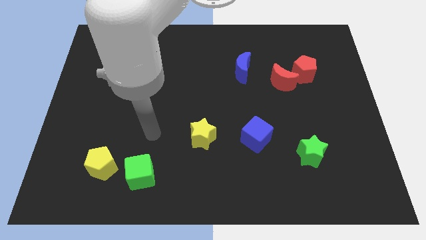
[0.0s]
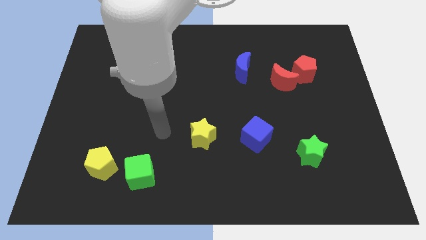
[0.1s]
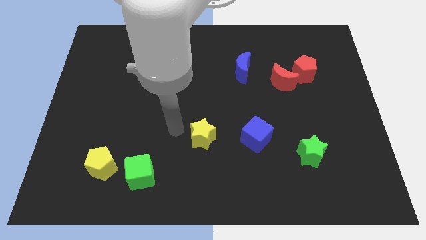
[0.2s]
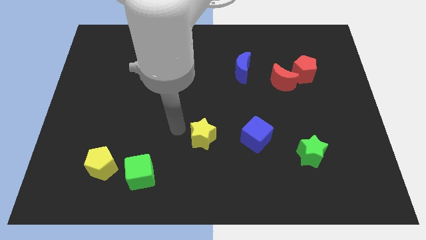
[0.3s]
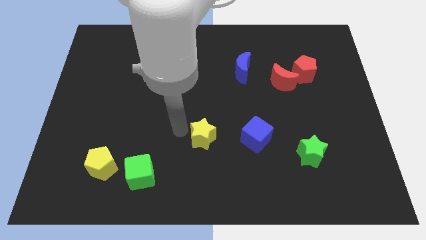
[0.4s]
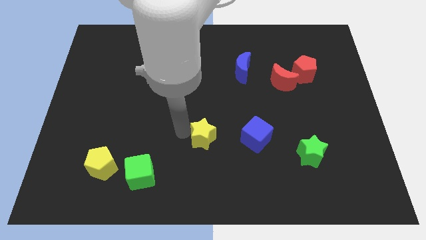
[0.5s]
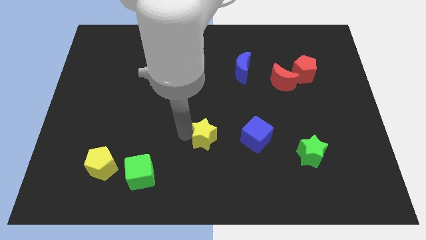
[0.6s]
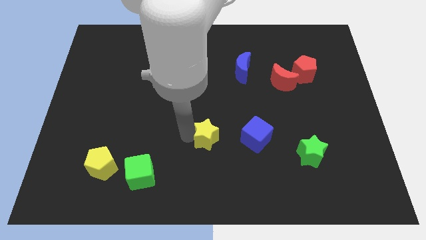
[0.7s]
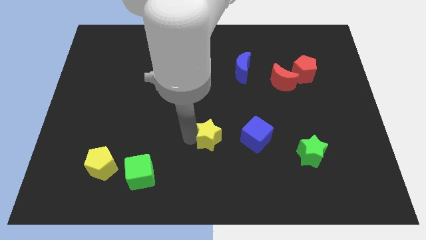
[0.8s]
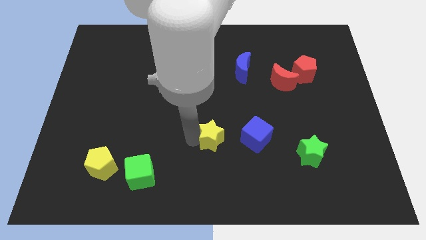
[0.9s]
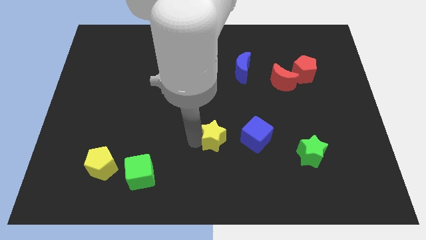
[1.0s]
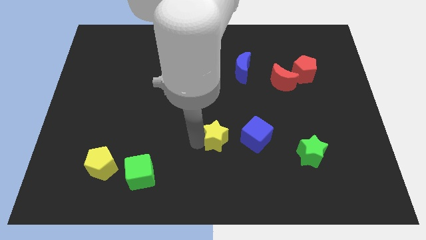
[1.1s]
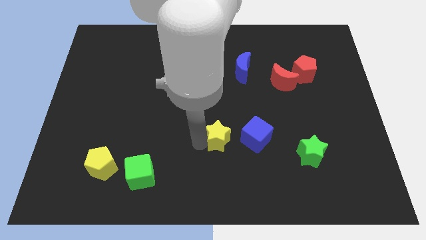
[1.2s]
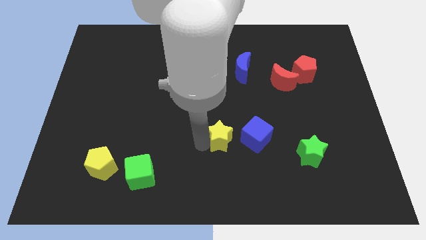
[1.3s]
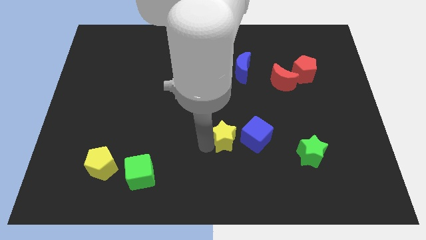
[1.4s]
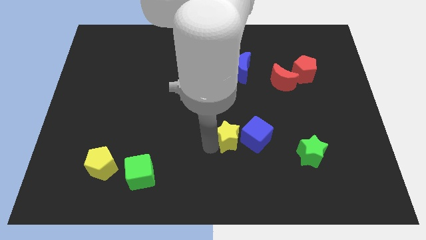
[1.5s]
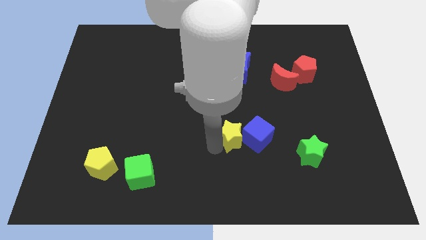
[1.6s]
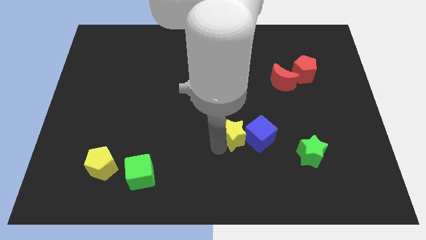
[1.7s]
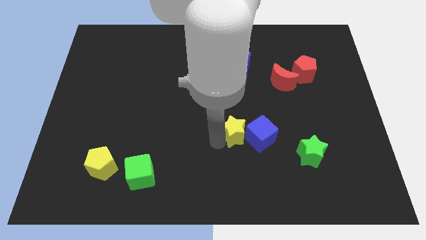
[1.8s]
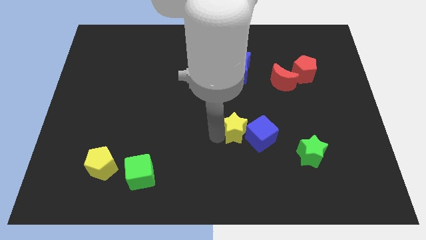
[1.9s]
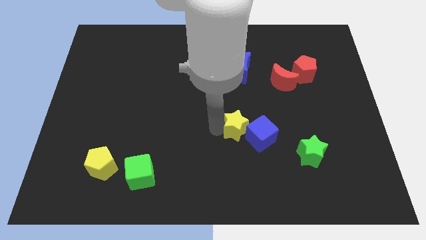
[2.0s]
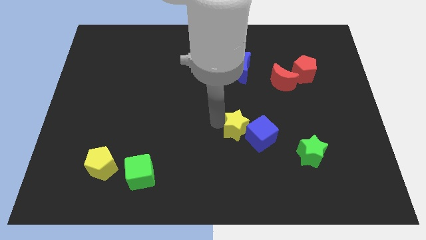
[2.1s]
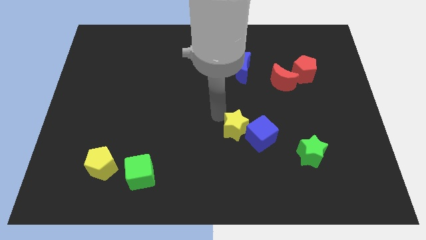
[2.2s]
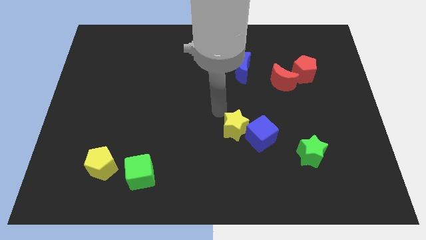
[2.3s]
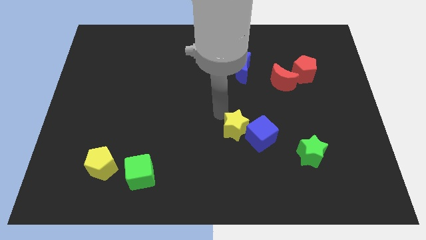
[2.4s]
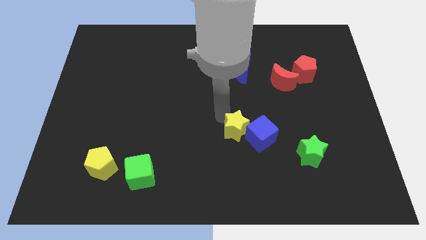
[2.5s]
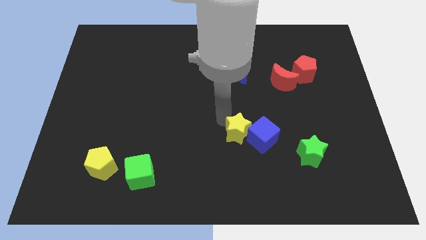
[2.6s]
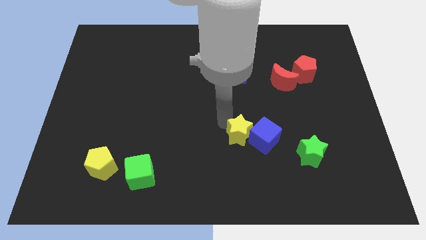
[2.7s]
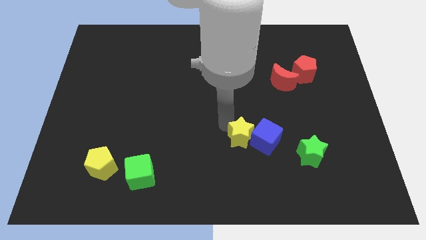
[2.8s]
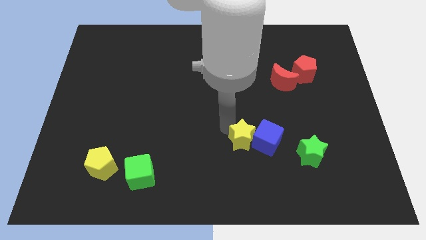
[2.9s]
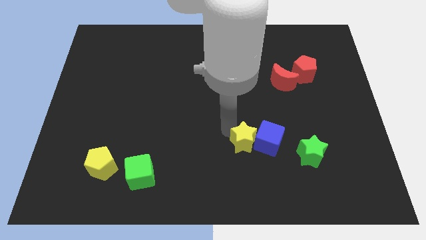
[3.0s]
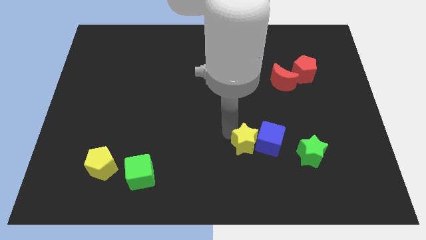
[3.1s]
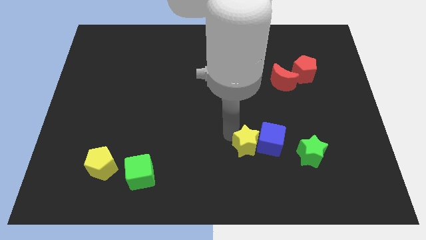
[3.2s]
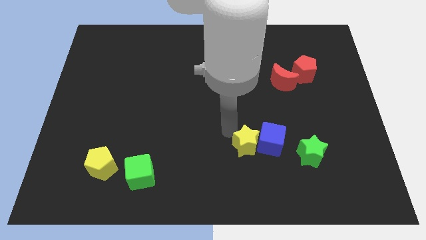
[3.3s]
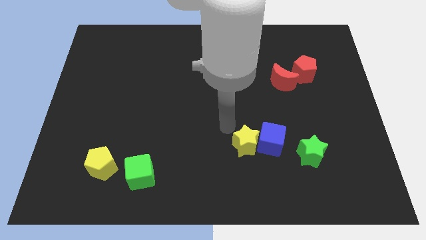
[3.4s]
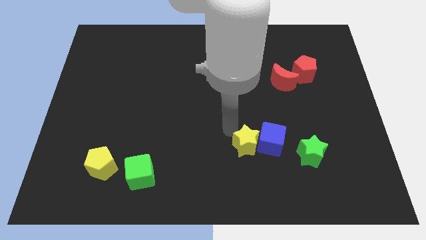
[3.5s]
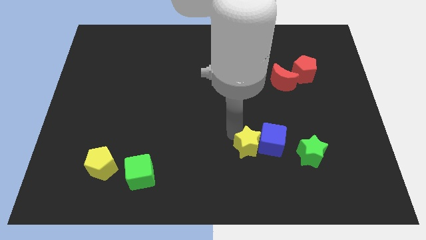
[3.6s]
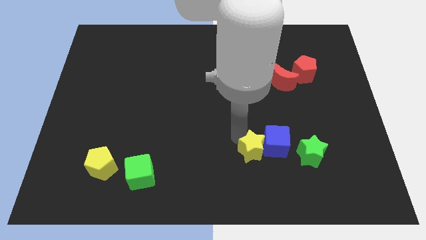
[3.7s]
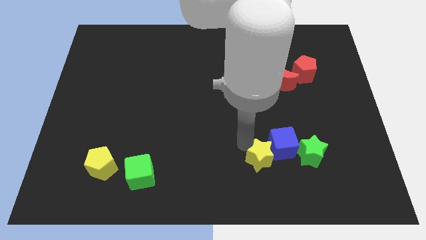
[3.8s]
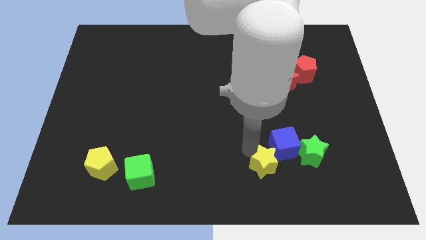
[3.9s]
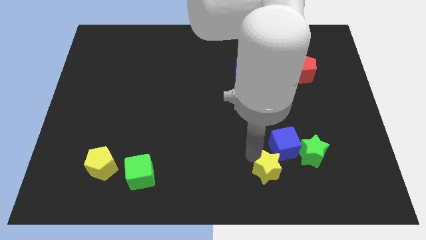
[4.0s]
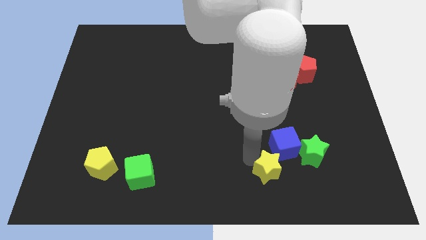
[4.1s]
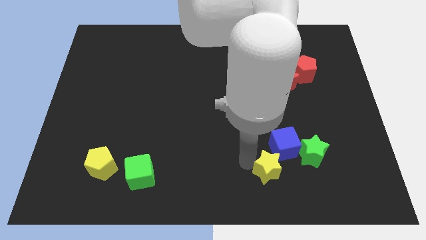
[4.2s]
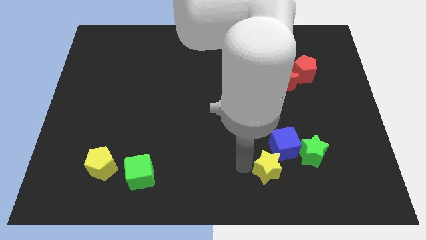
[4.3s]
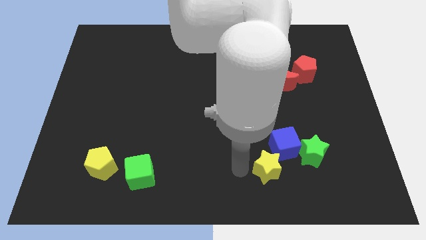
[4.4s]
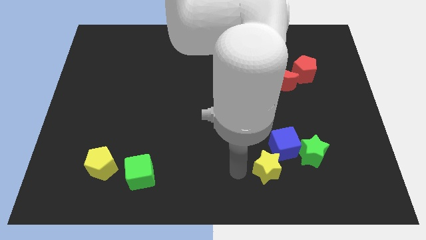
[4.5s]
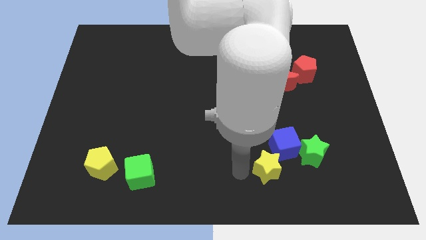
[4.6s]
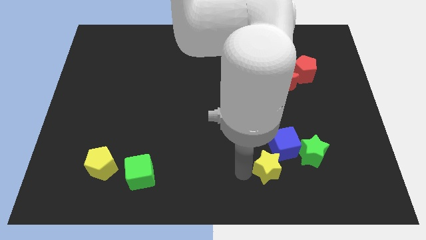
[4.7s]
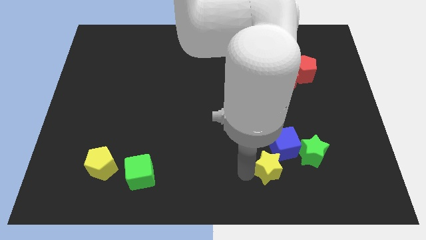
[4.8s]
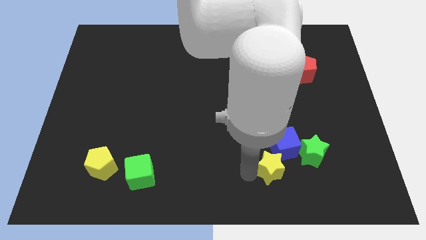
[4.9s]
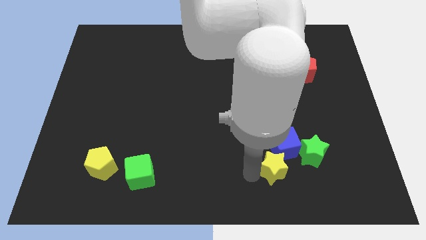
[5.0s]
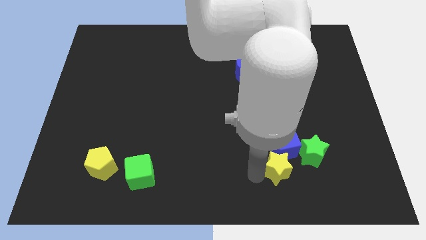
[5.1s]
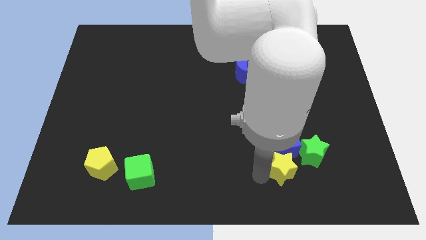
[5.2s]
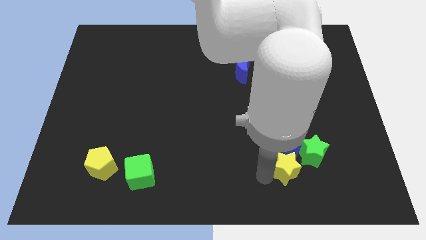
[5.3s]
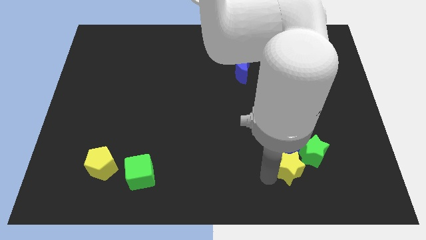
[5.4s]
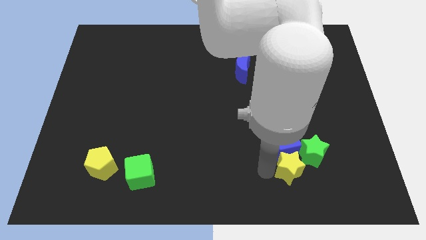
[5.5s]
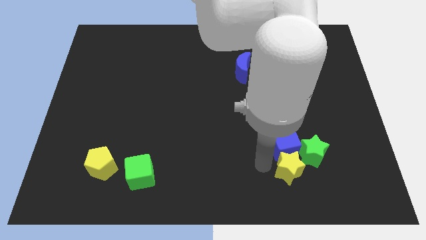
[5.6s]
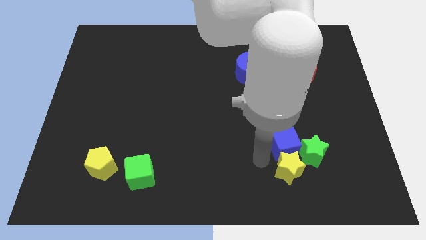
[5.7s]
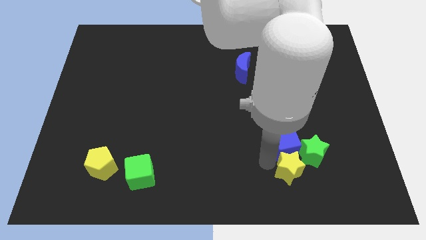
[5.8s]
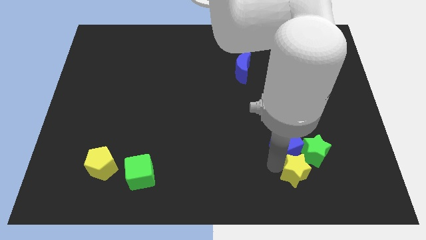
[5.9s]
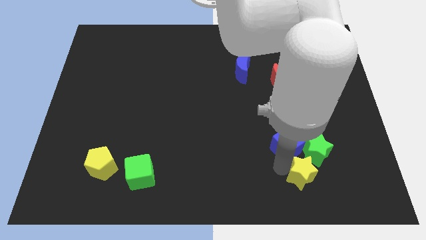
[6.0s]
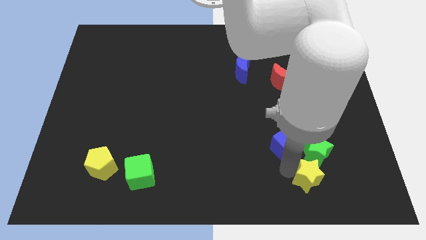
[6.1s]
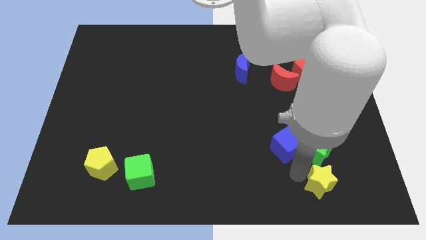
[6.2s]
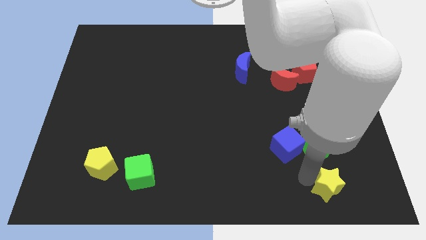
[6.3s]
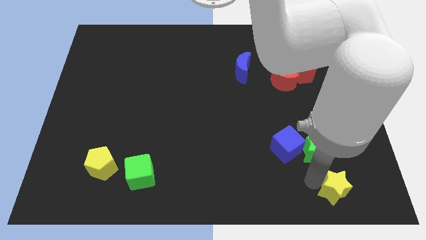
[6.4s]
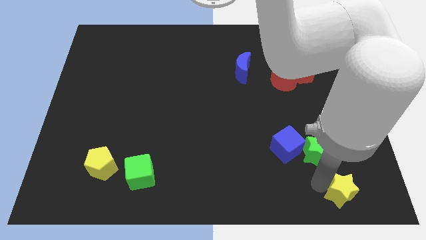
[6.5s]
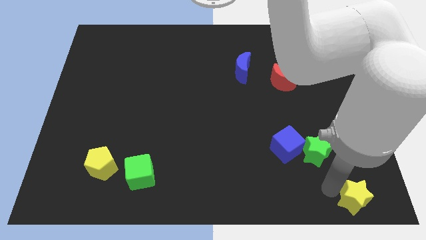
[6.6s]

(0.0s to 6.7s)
put the yellow star to the bottom right
